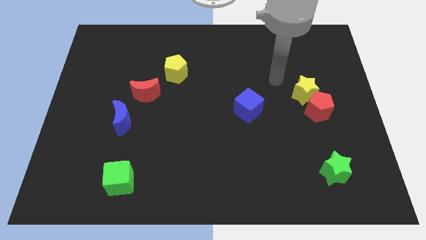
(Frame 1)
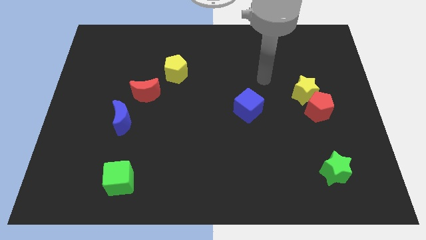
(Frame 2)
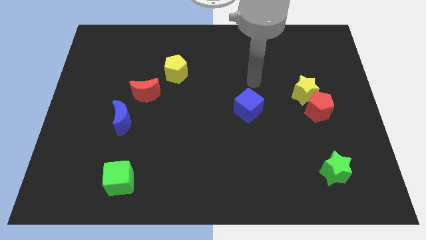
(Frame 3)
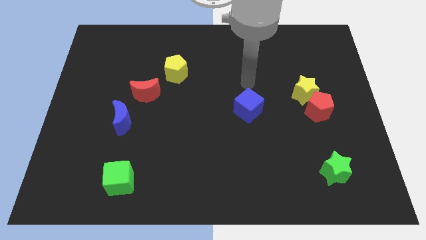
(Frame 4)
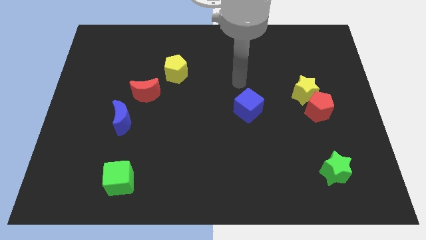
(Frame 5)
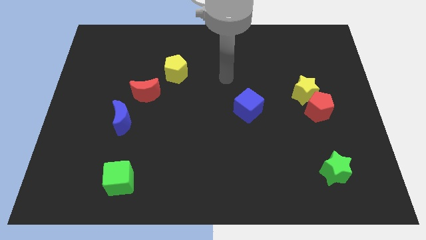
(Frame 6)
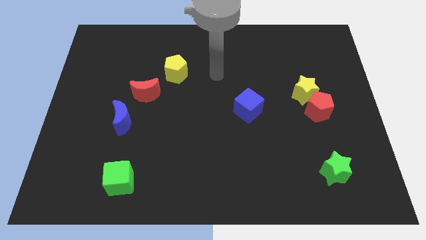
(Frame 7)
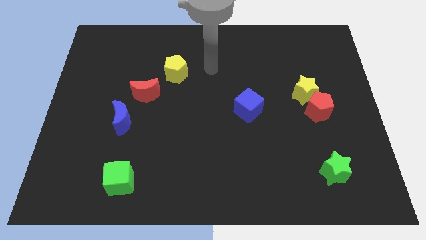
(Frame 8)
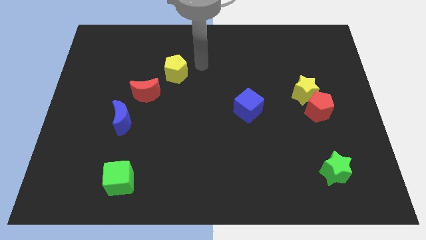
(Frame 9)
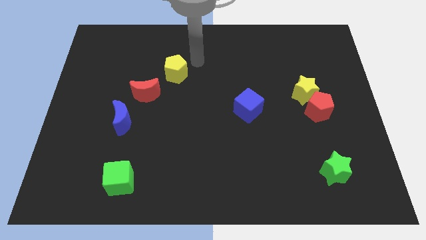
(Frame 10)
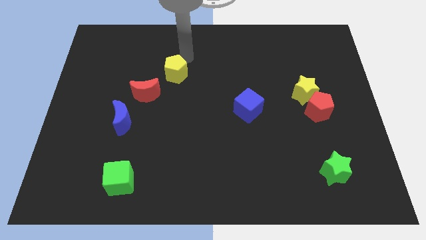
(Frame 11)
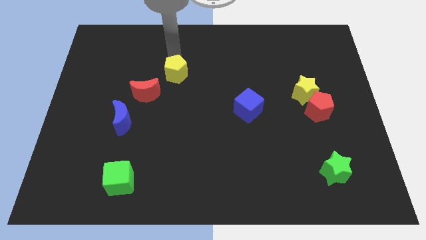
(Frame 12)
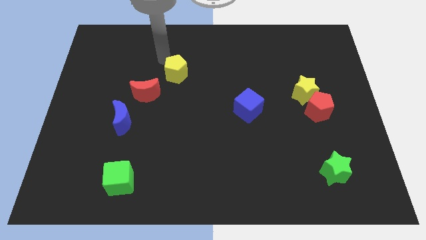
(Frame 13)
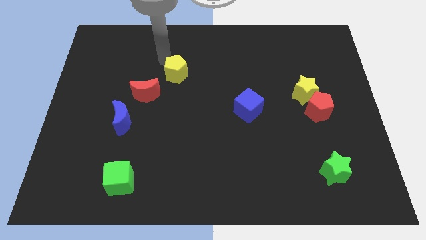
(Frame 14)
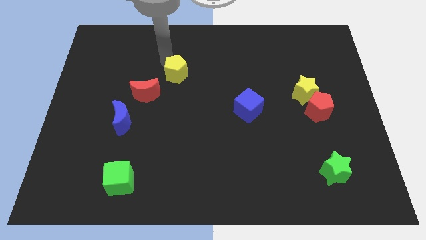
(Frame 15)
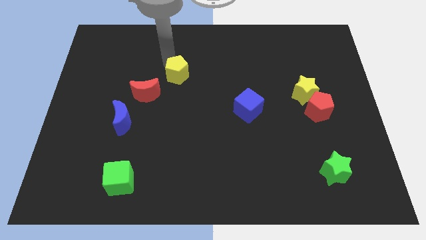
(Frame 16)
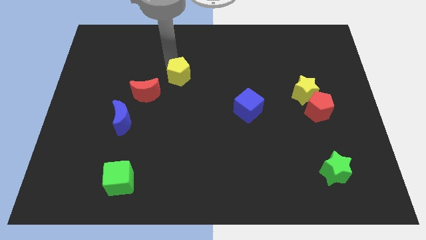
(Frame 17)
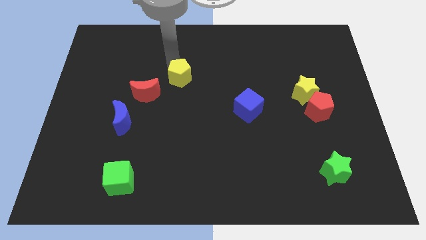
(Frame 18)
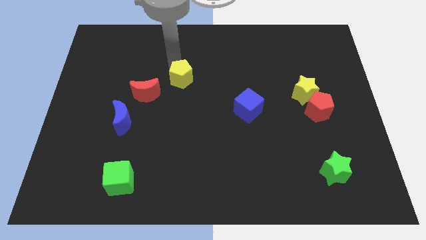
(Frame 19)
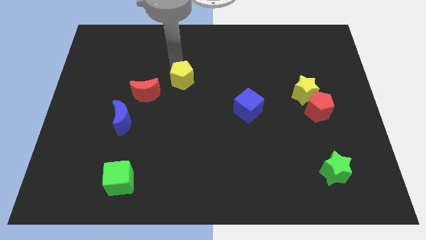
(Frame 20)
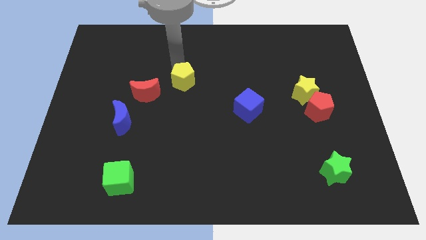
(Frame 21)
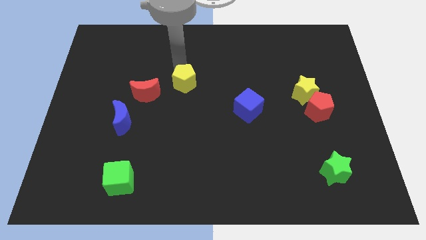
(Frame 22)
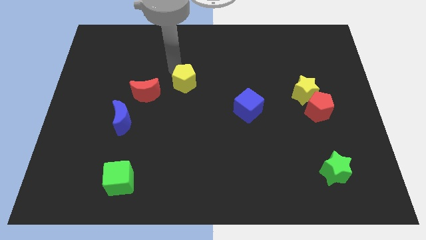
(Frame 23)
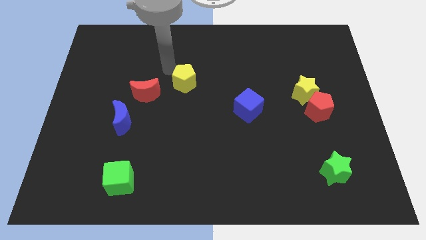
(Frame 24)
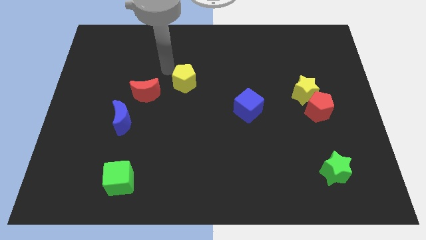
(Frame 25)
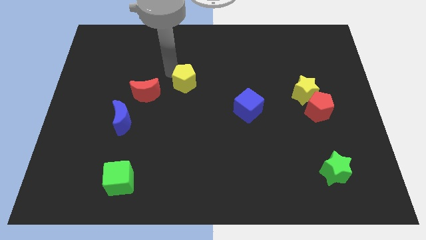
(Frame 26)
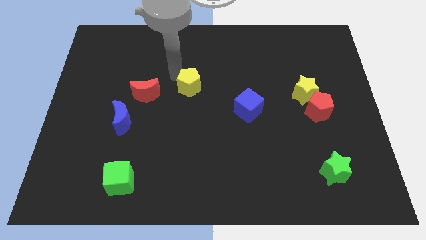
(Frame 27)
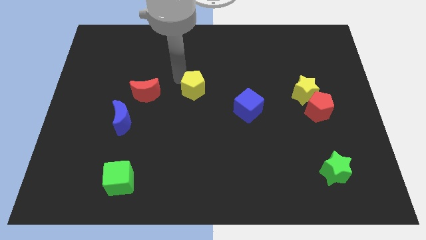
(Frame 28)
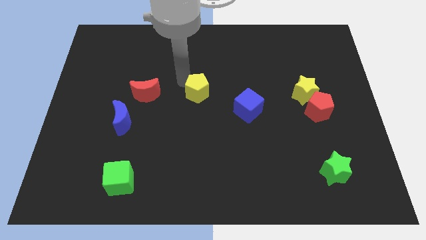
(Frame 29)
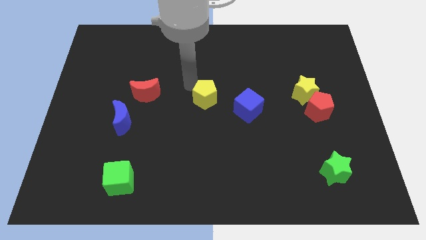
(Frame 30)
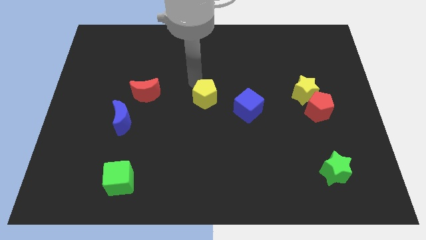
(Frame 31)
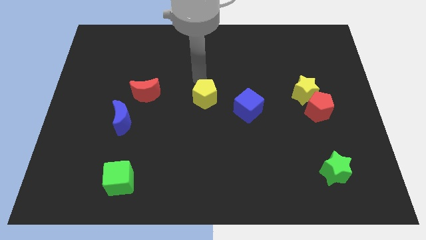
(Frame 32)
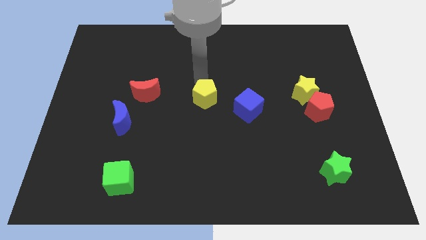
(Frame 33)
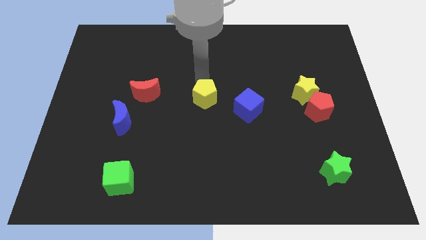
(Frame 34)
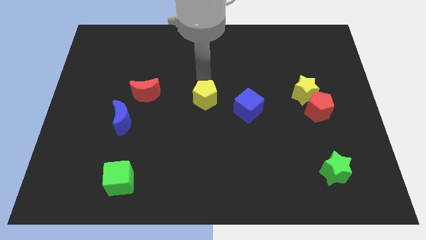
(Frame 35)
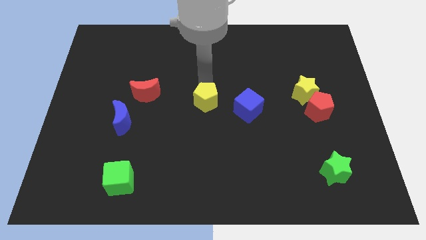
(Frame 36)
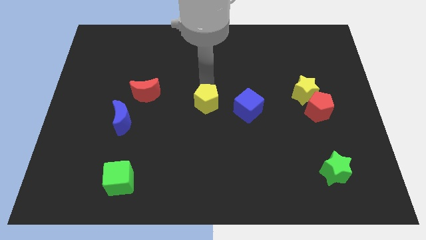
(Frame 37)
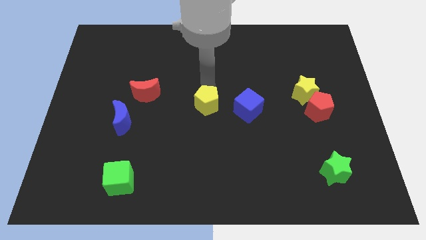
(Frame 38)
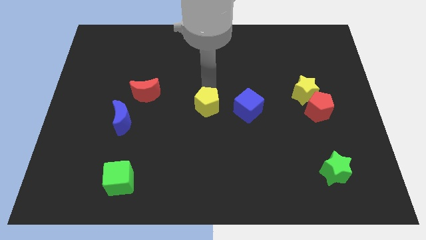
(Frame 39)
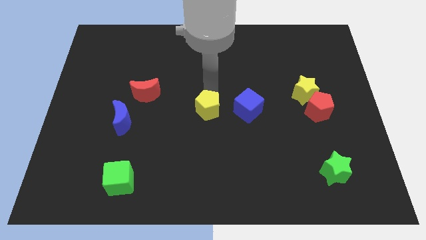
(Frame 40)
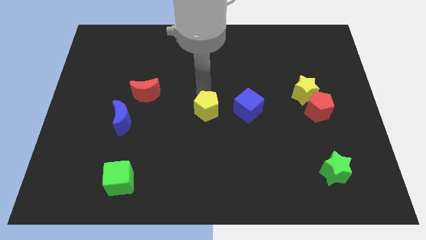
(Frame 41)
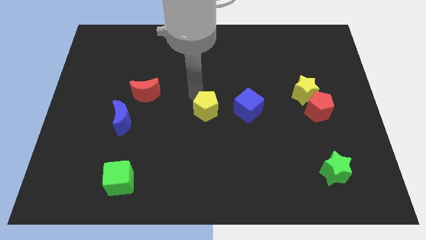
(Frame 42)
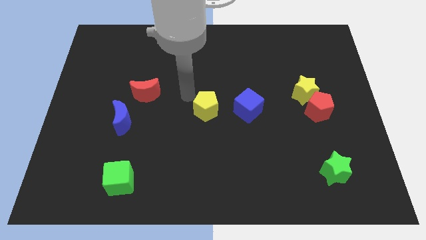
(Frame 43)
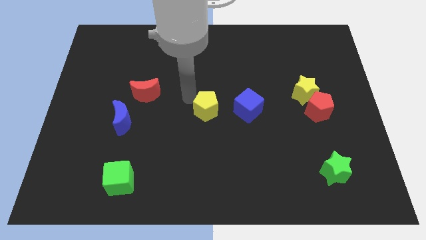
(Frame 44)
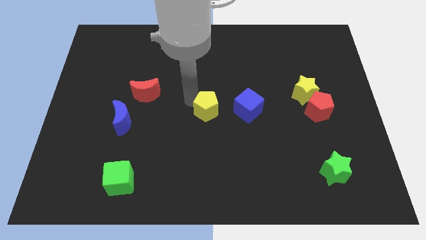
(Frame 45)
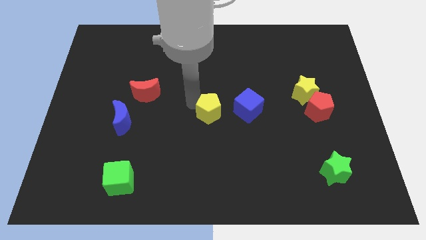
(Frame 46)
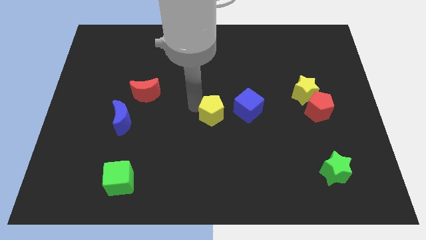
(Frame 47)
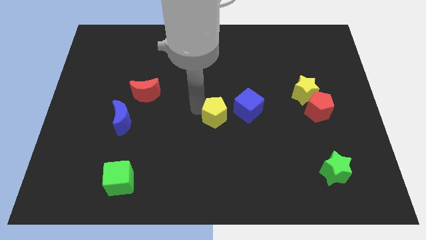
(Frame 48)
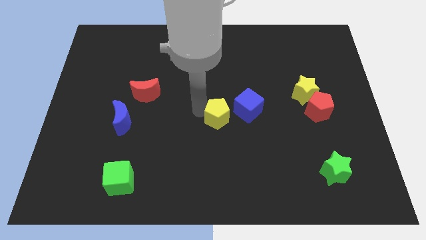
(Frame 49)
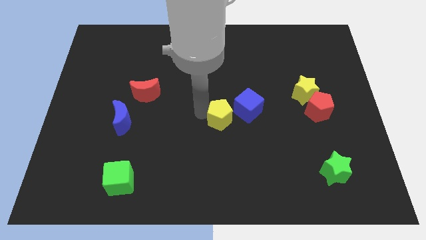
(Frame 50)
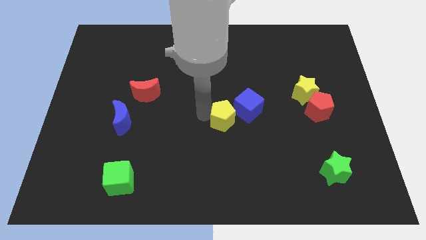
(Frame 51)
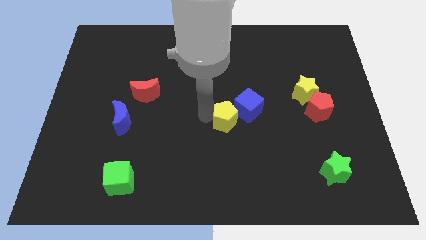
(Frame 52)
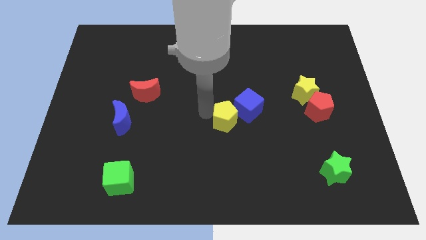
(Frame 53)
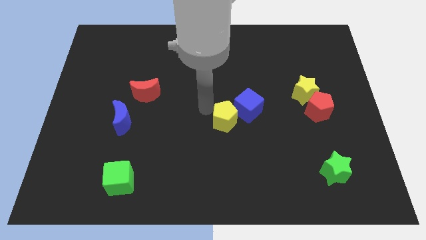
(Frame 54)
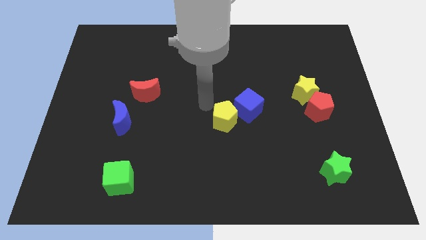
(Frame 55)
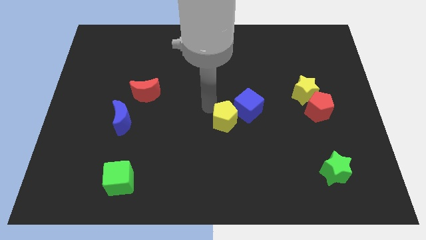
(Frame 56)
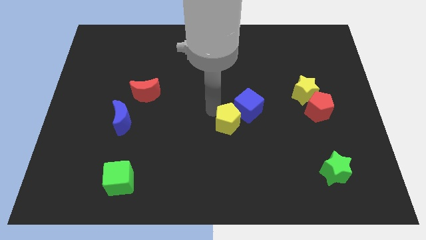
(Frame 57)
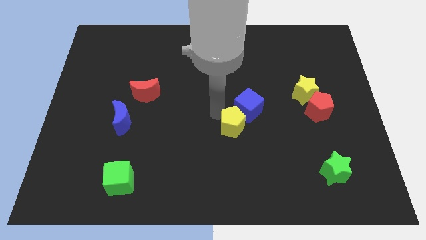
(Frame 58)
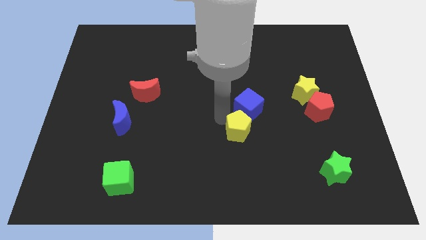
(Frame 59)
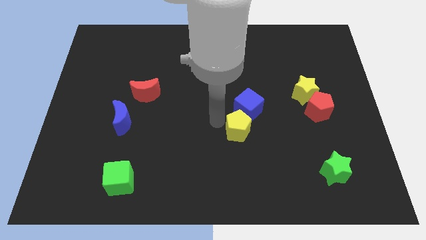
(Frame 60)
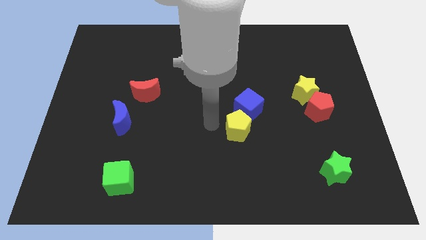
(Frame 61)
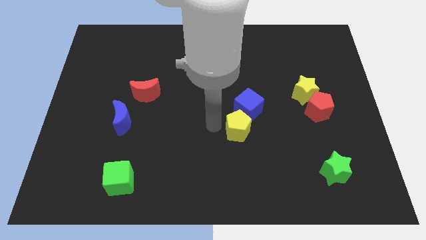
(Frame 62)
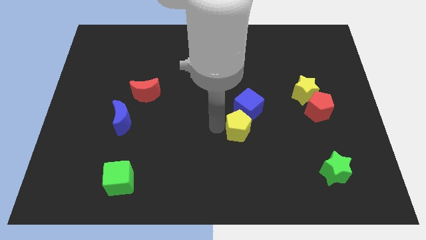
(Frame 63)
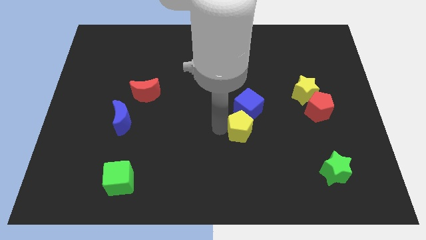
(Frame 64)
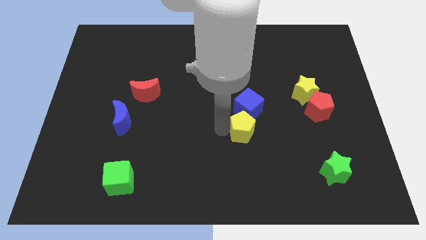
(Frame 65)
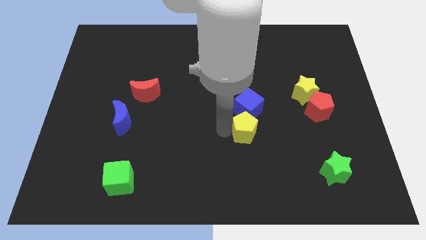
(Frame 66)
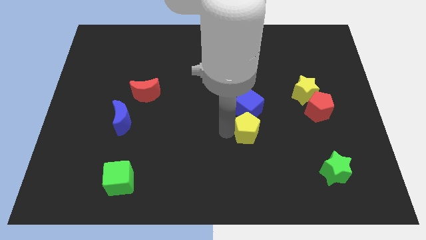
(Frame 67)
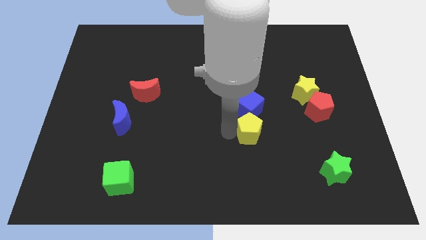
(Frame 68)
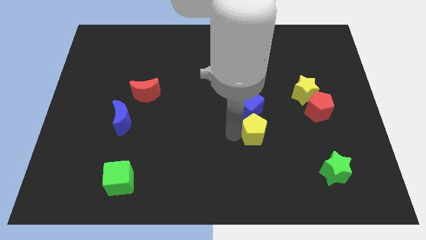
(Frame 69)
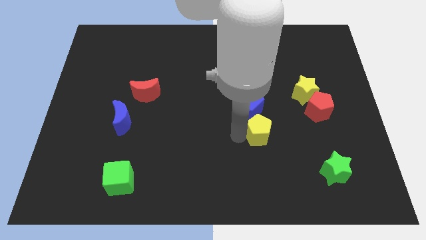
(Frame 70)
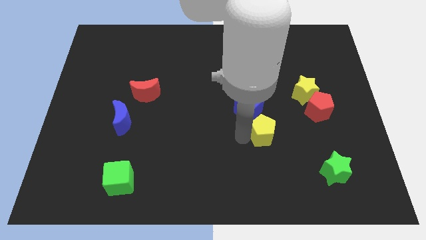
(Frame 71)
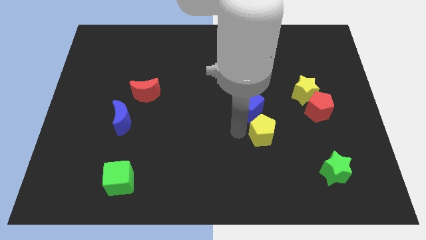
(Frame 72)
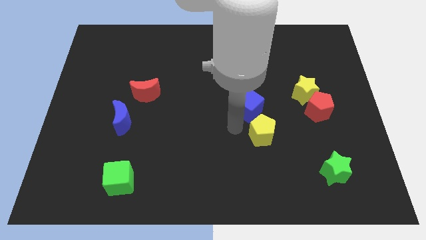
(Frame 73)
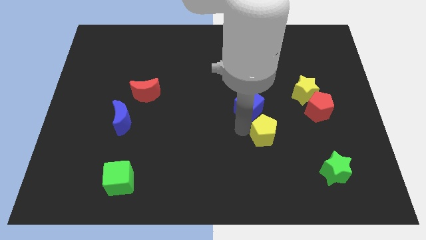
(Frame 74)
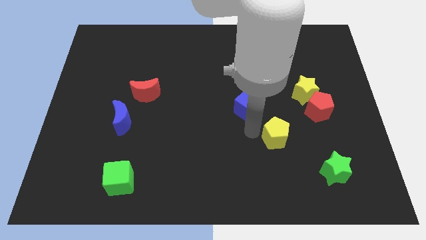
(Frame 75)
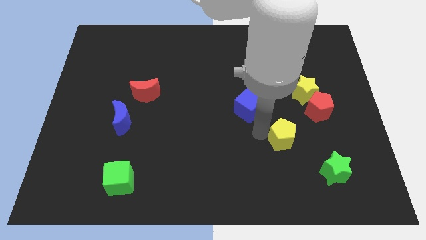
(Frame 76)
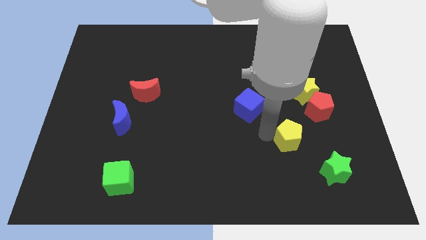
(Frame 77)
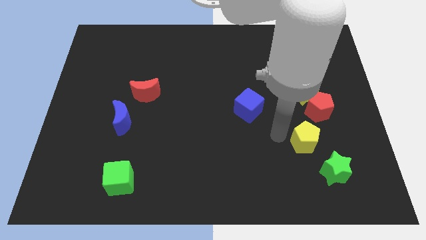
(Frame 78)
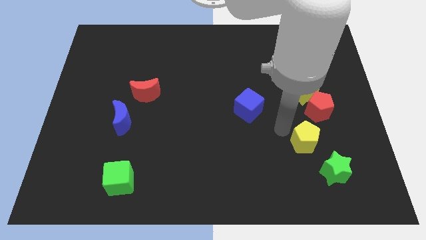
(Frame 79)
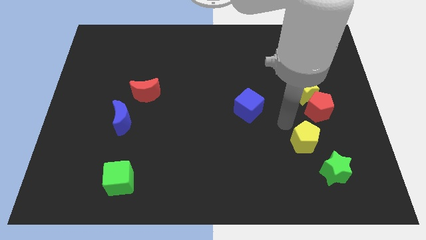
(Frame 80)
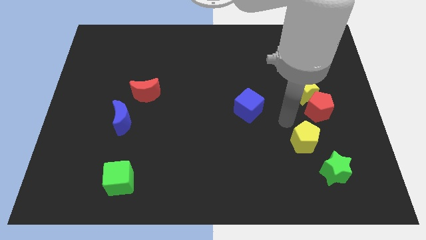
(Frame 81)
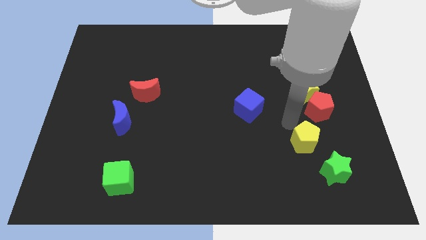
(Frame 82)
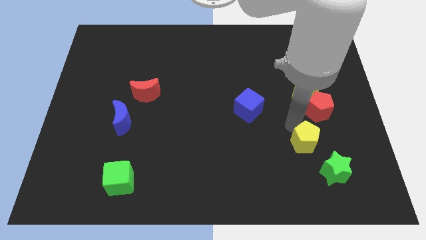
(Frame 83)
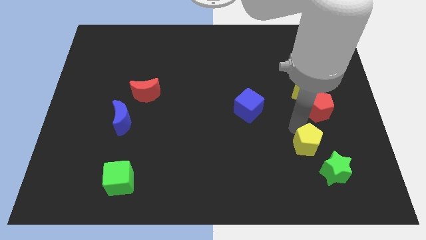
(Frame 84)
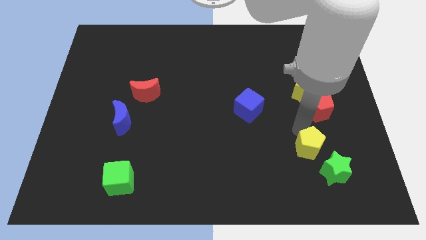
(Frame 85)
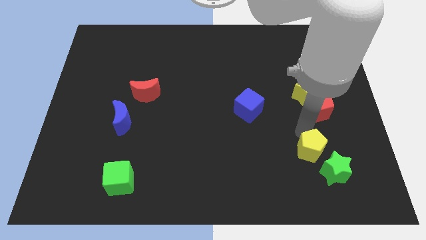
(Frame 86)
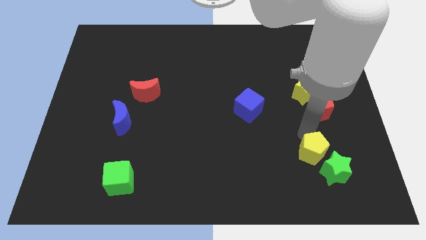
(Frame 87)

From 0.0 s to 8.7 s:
put the yellow pentagon close to the green star
